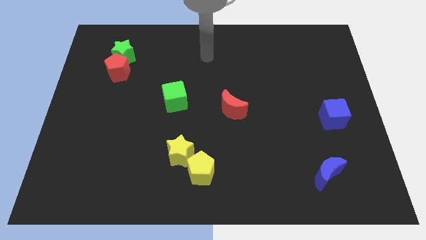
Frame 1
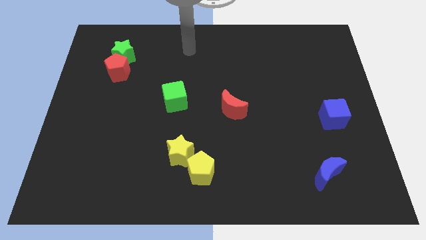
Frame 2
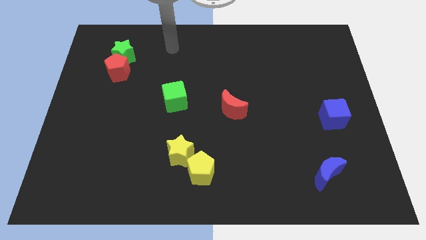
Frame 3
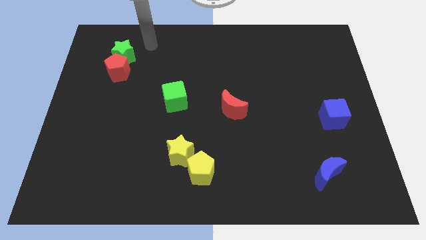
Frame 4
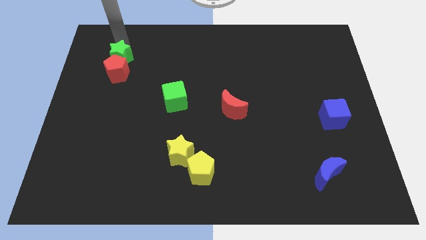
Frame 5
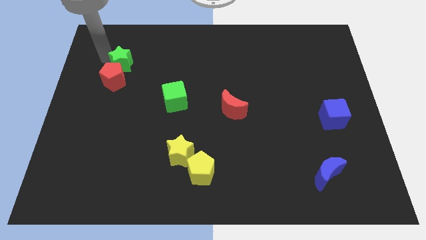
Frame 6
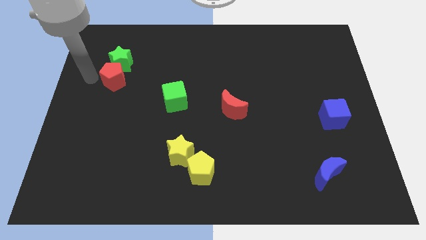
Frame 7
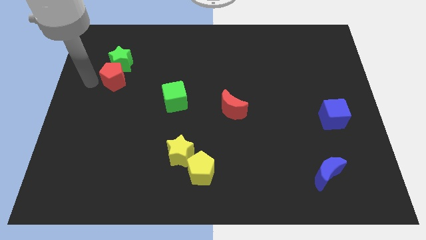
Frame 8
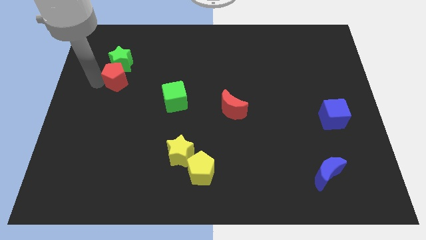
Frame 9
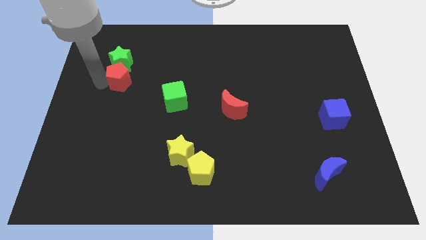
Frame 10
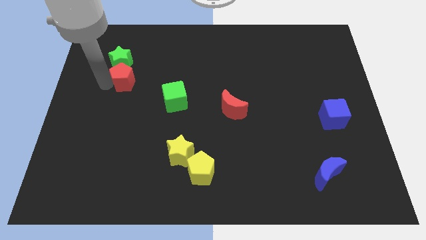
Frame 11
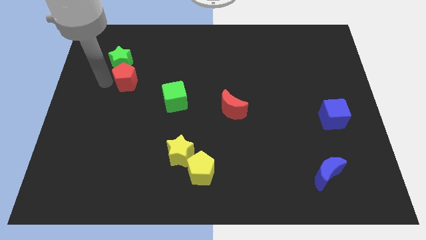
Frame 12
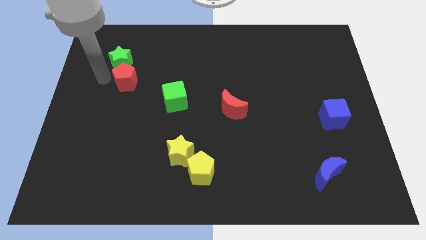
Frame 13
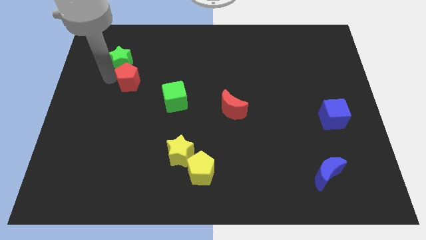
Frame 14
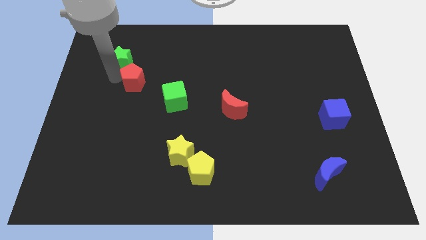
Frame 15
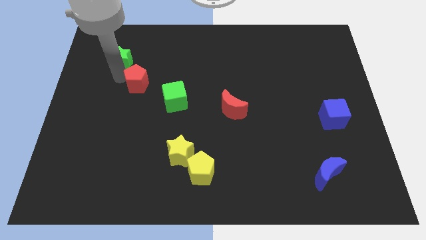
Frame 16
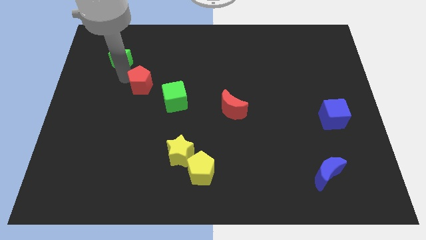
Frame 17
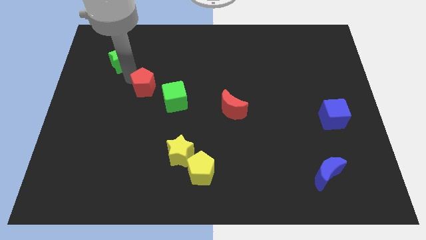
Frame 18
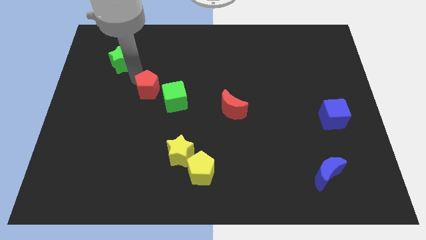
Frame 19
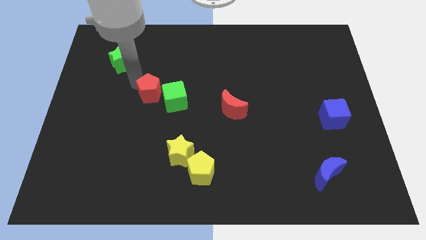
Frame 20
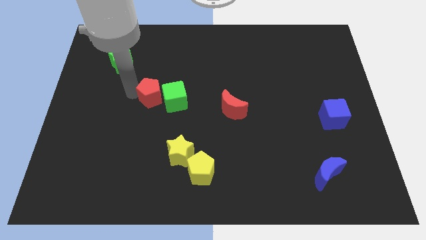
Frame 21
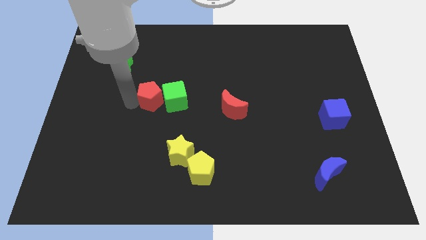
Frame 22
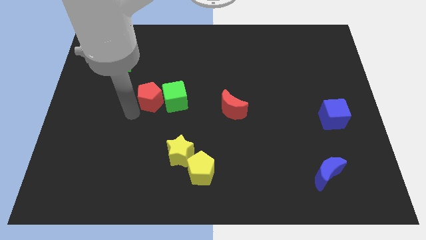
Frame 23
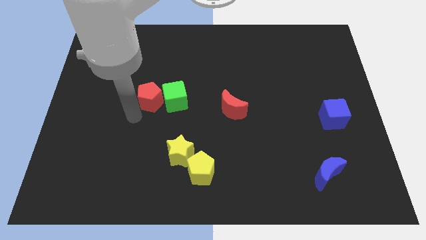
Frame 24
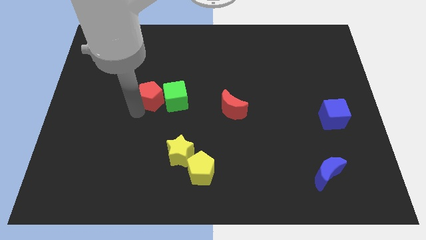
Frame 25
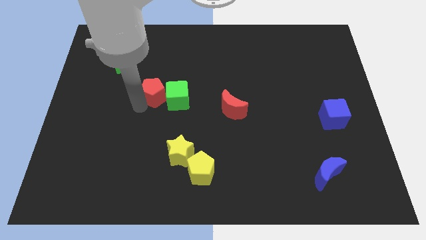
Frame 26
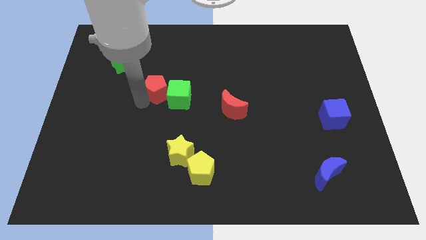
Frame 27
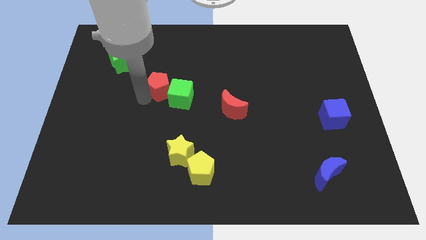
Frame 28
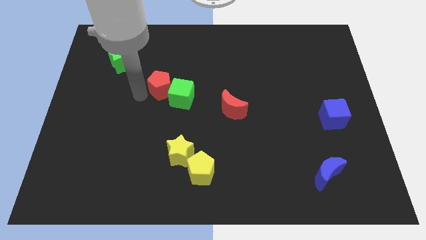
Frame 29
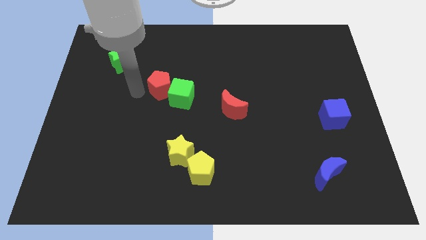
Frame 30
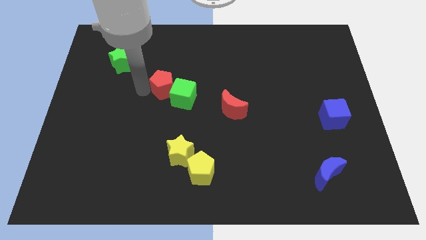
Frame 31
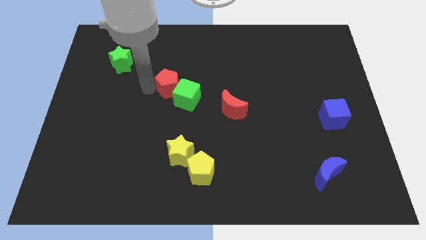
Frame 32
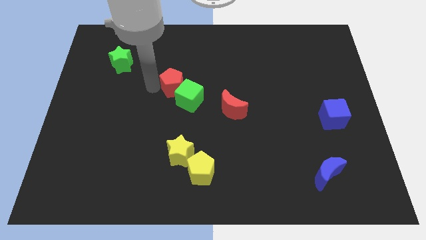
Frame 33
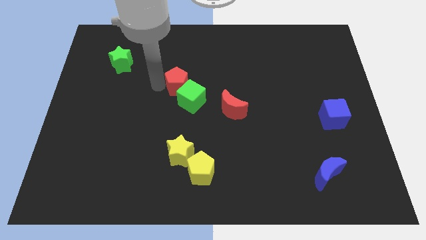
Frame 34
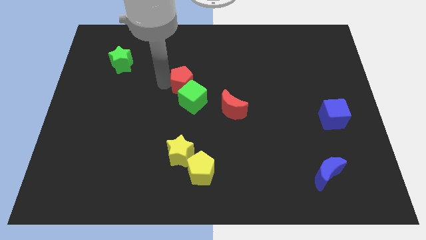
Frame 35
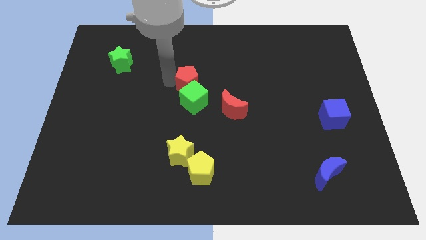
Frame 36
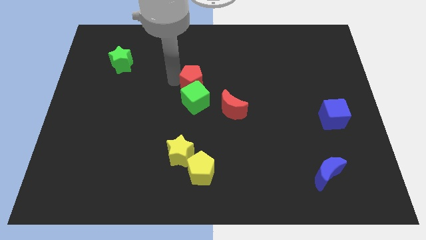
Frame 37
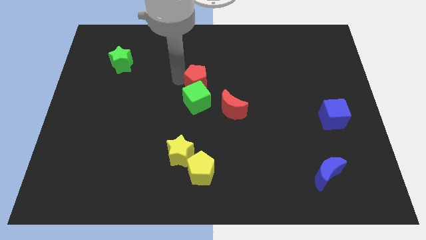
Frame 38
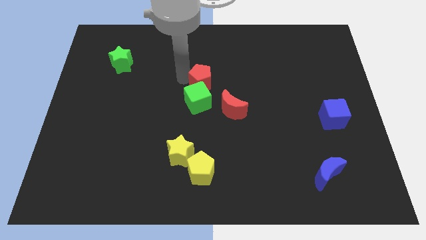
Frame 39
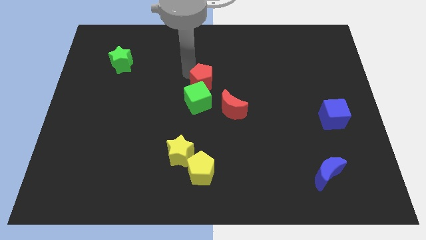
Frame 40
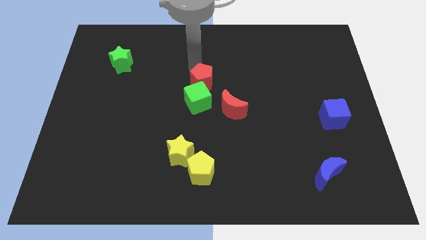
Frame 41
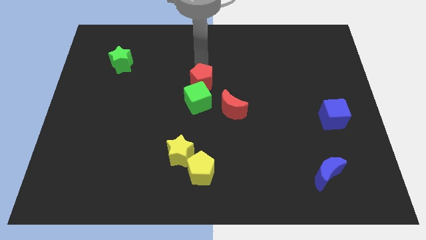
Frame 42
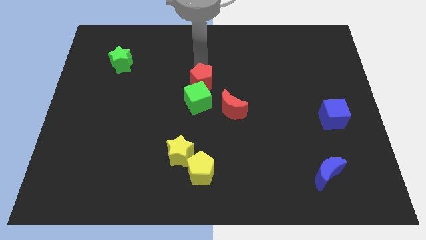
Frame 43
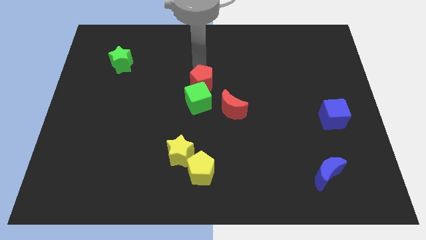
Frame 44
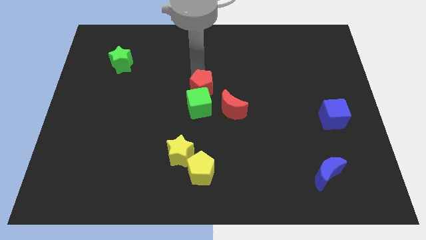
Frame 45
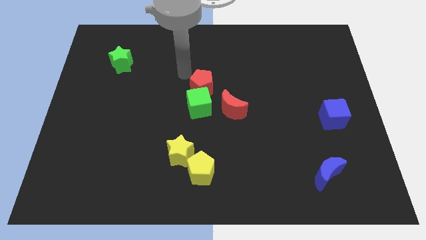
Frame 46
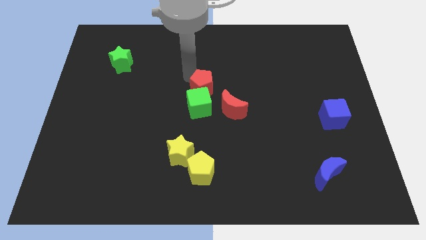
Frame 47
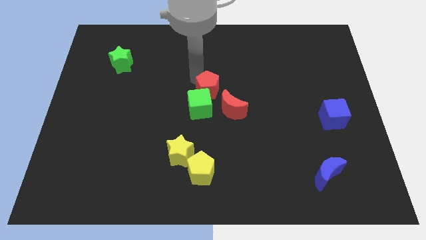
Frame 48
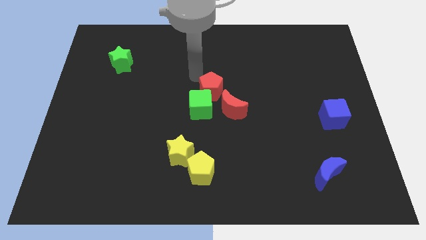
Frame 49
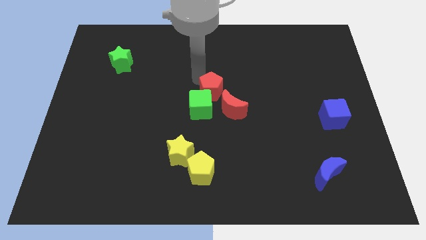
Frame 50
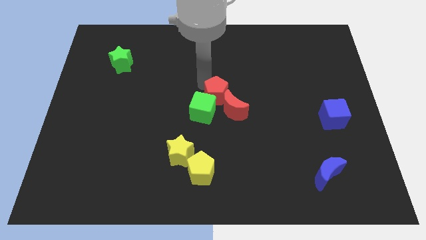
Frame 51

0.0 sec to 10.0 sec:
move the red pentagon to the red moon
